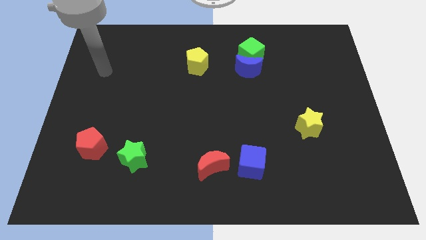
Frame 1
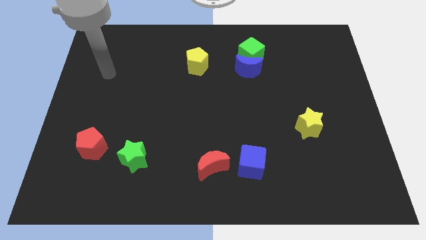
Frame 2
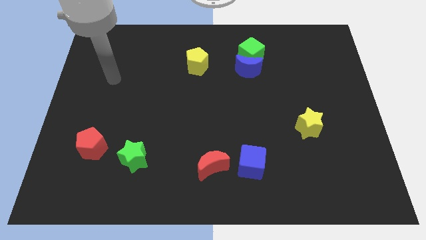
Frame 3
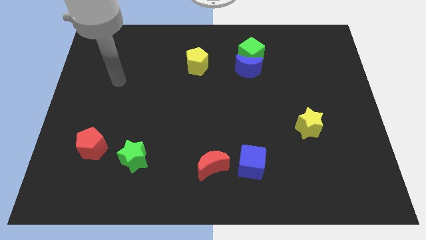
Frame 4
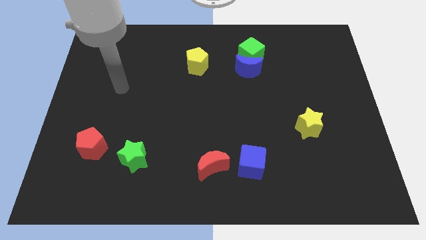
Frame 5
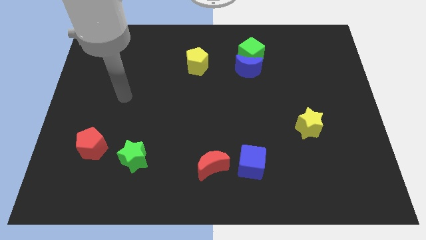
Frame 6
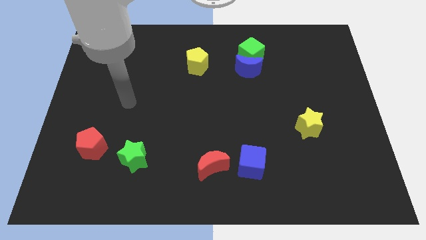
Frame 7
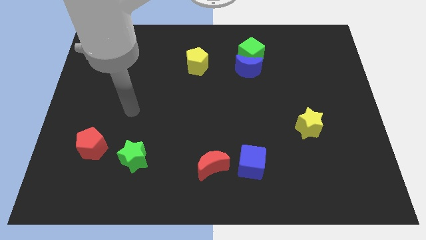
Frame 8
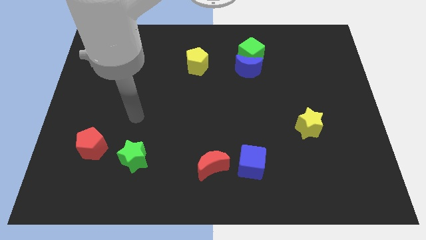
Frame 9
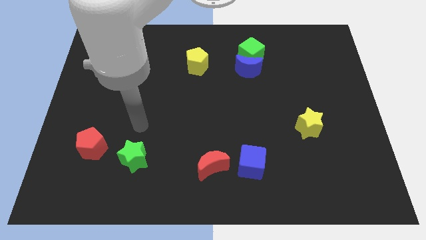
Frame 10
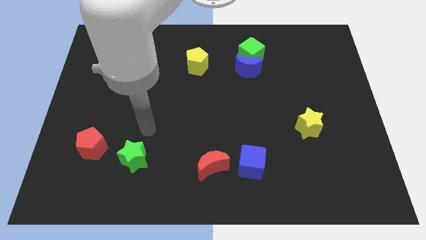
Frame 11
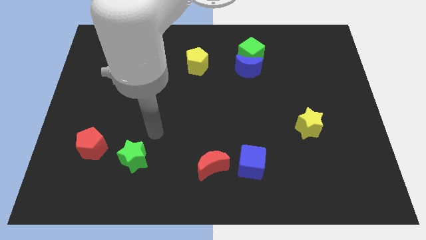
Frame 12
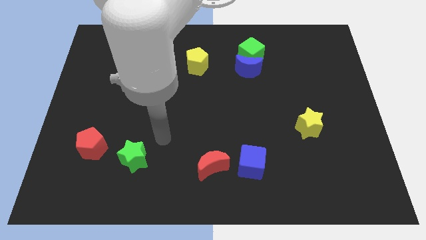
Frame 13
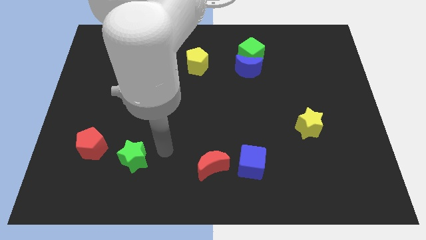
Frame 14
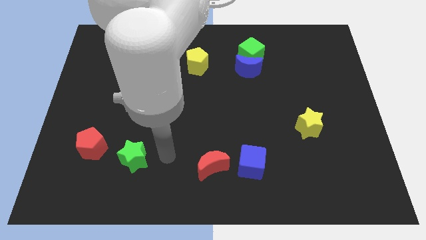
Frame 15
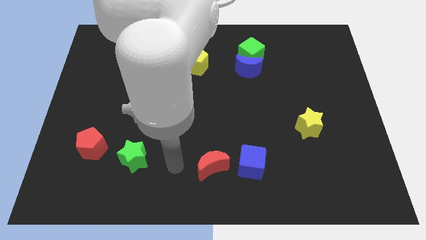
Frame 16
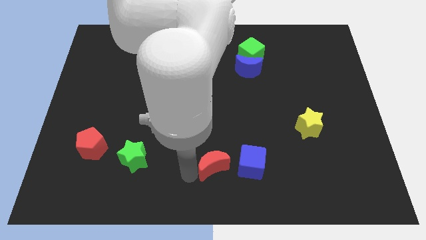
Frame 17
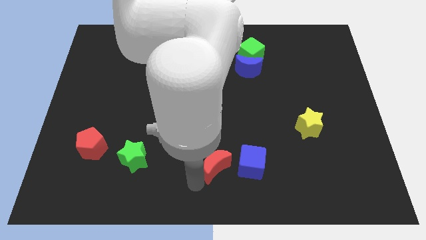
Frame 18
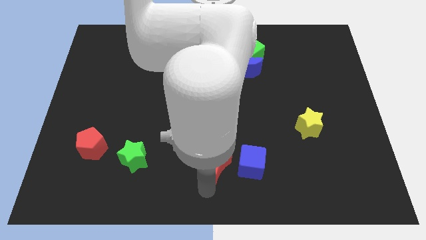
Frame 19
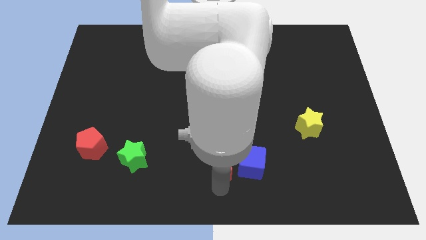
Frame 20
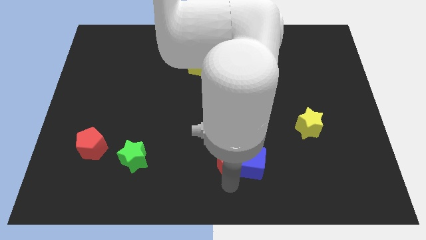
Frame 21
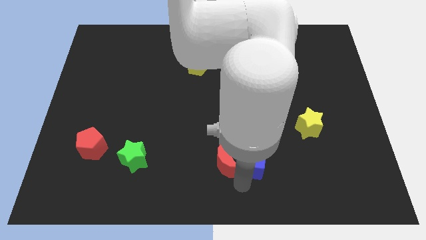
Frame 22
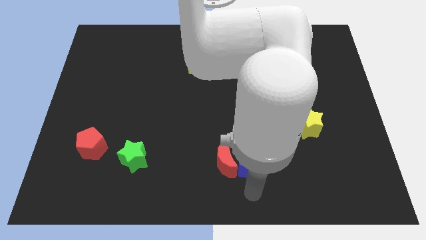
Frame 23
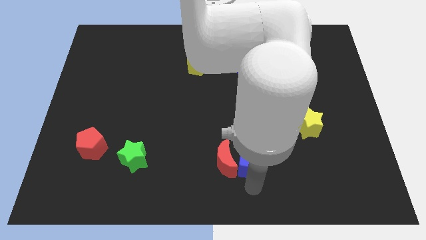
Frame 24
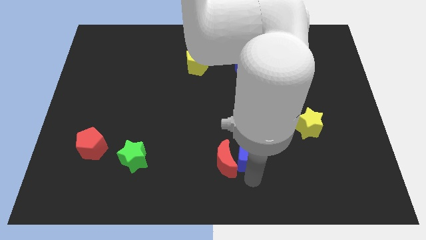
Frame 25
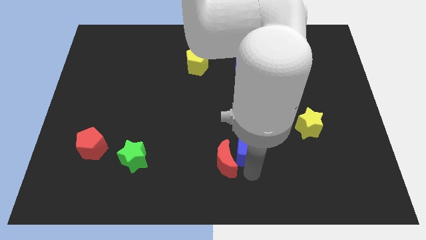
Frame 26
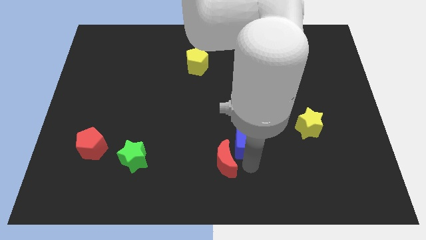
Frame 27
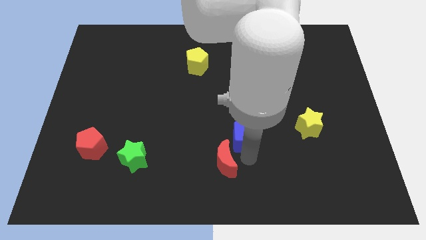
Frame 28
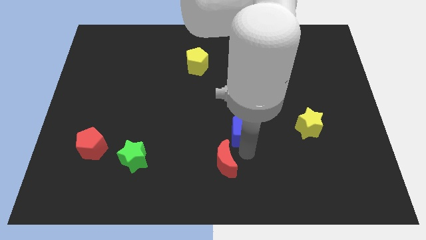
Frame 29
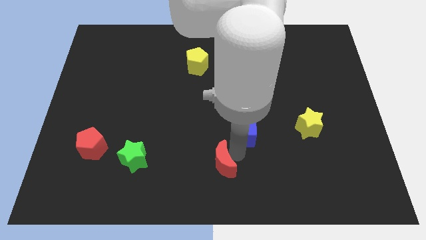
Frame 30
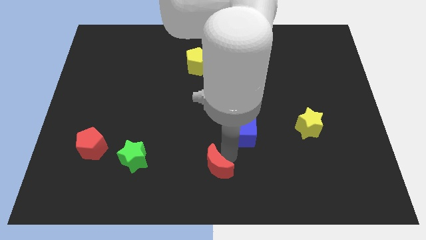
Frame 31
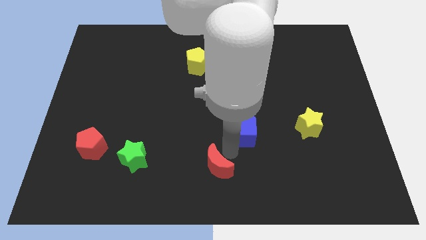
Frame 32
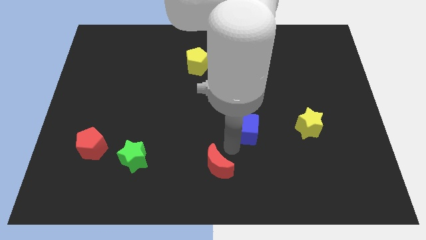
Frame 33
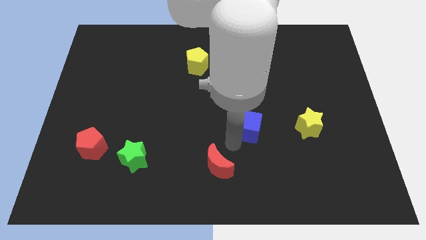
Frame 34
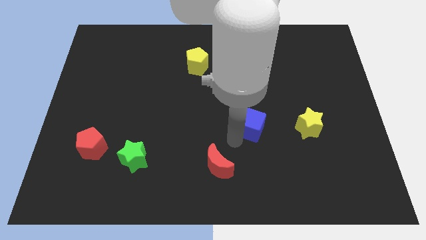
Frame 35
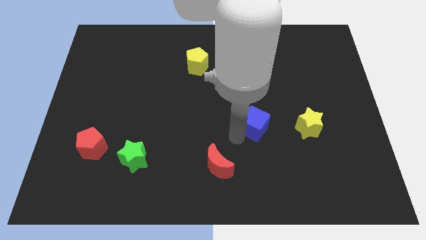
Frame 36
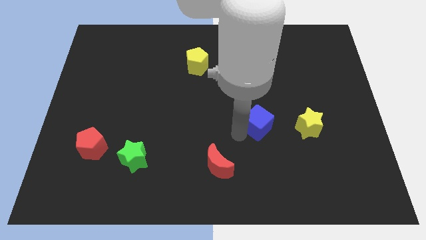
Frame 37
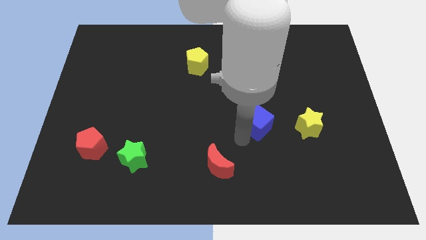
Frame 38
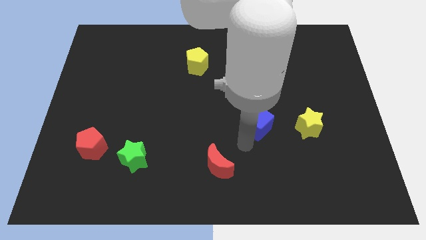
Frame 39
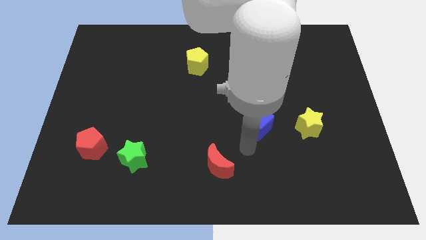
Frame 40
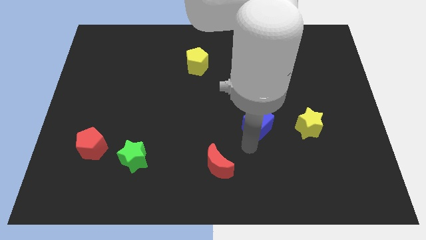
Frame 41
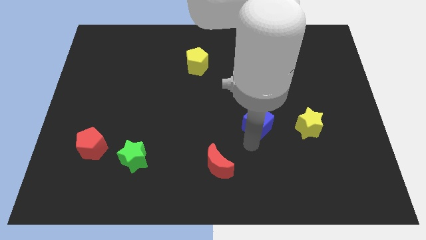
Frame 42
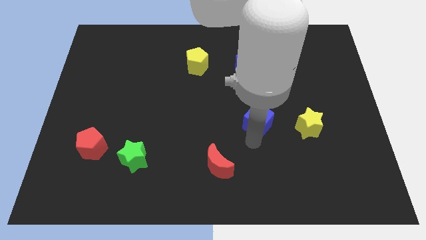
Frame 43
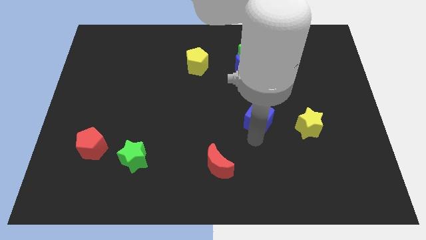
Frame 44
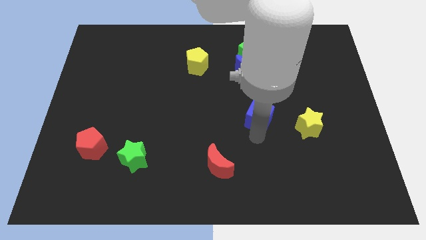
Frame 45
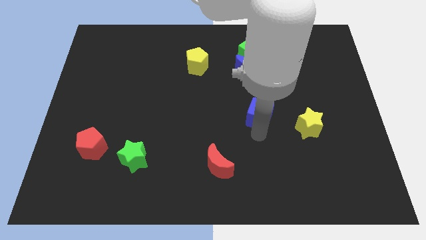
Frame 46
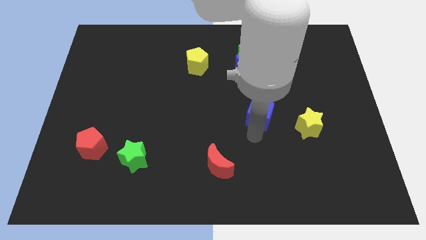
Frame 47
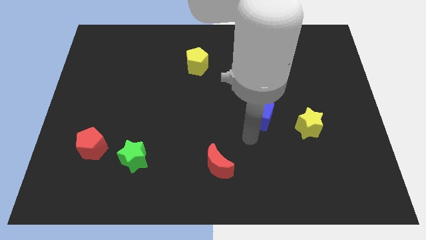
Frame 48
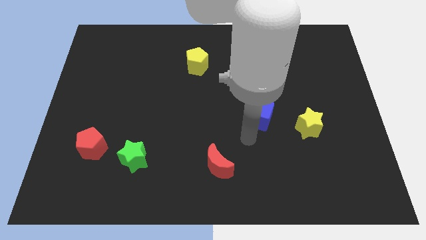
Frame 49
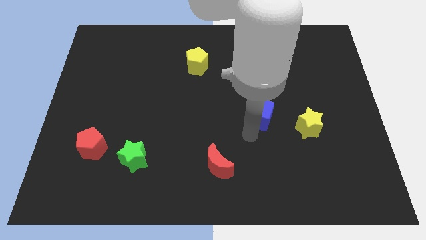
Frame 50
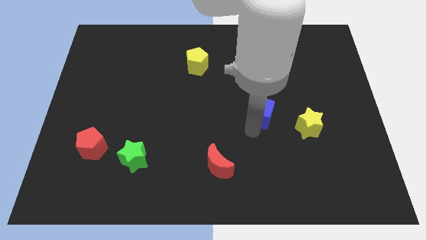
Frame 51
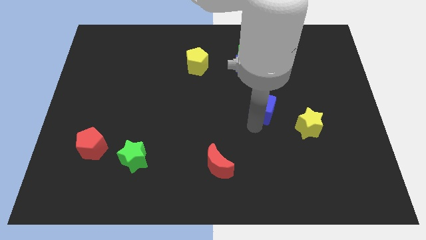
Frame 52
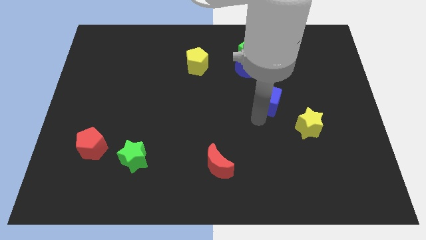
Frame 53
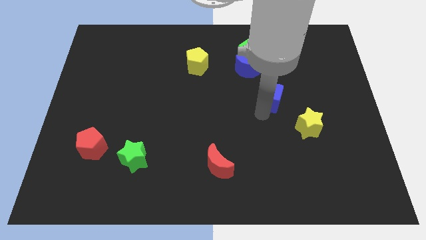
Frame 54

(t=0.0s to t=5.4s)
move the blue cube to the bottom right side of the blue moon

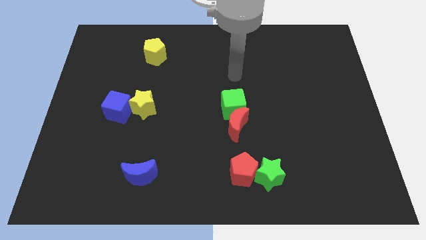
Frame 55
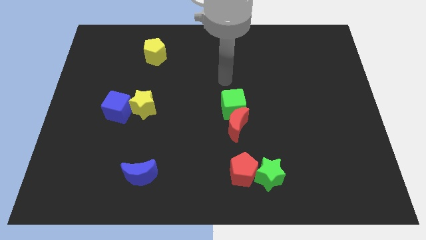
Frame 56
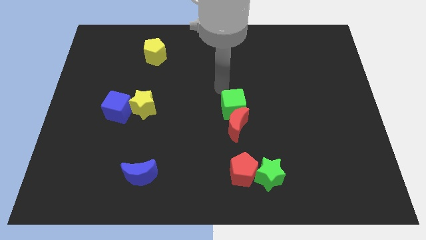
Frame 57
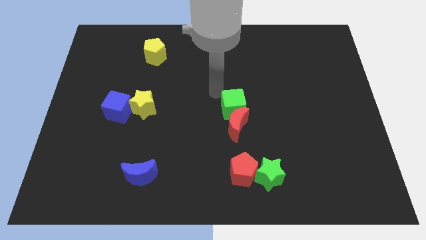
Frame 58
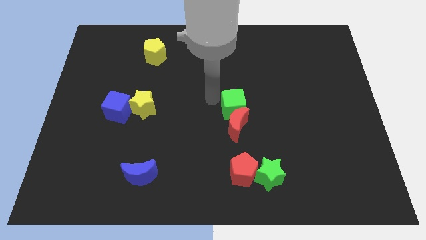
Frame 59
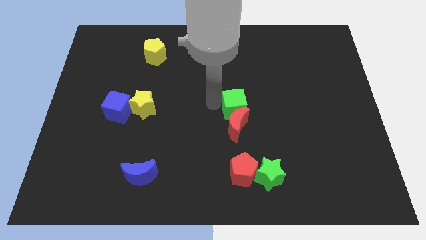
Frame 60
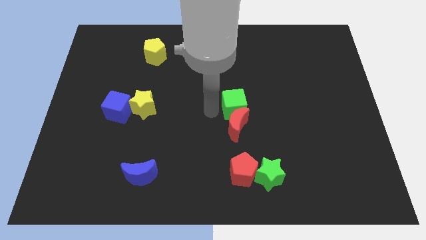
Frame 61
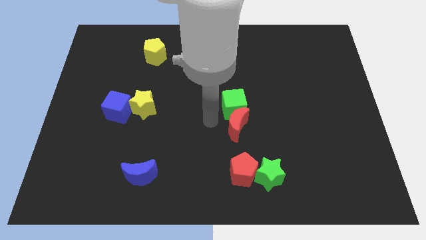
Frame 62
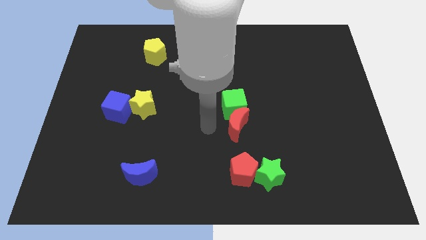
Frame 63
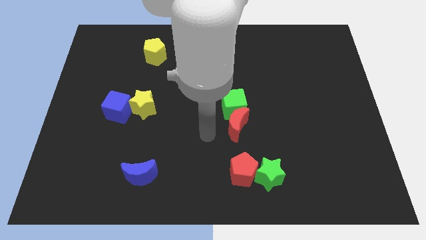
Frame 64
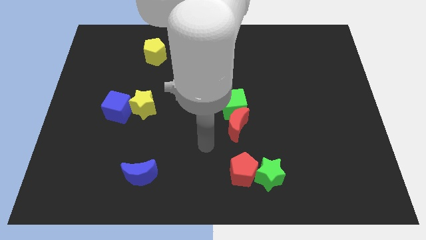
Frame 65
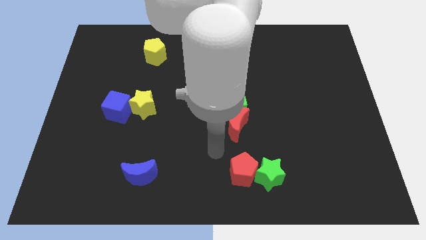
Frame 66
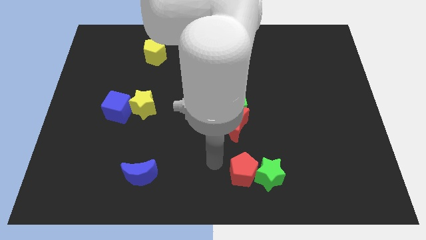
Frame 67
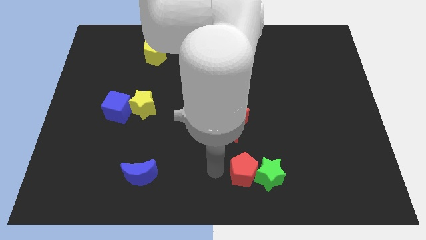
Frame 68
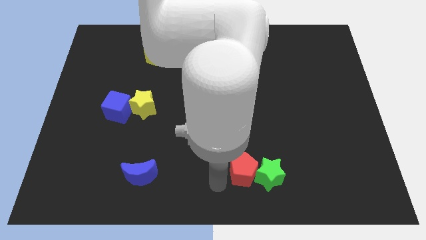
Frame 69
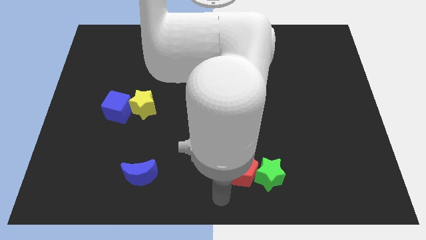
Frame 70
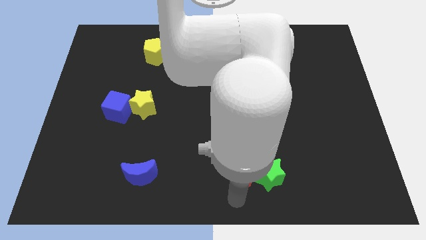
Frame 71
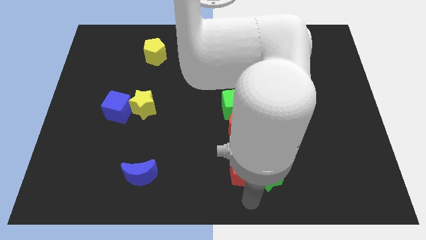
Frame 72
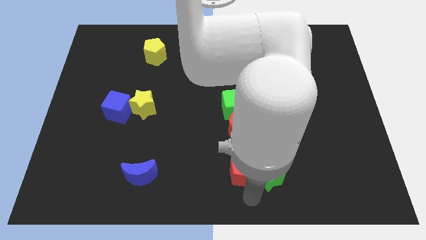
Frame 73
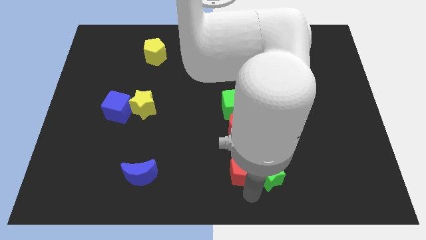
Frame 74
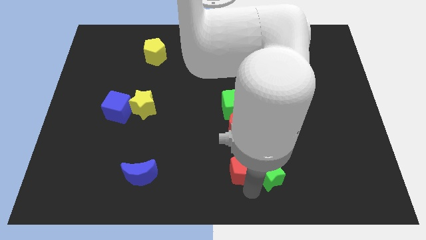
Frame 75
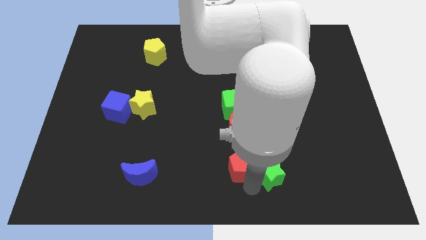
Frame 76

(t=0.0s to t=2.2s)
move the red pentagon to the bottom side of the green cube
